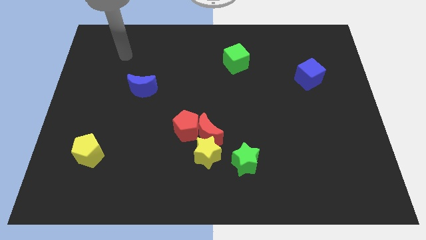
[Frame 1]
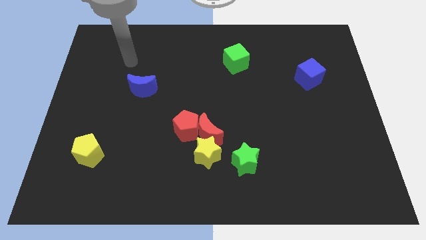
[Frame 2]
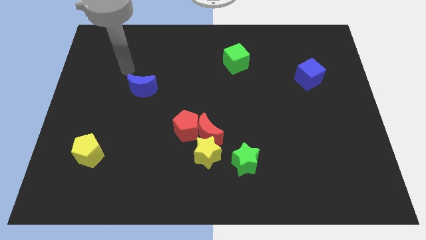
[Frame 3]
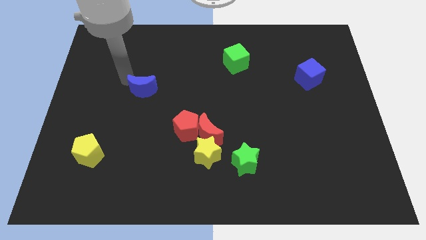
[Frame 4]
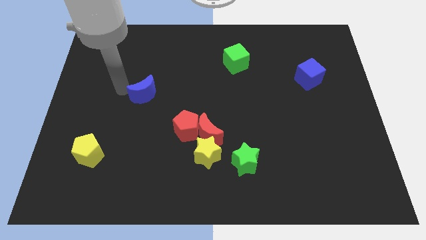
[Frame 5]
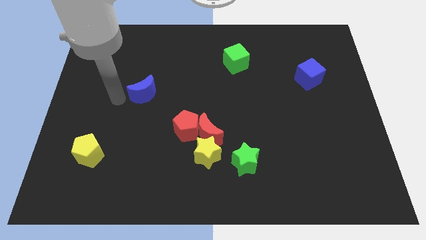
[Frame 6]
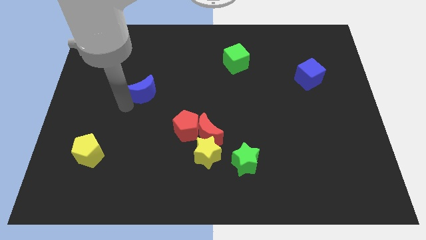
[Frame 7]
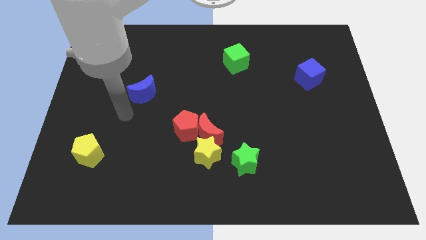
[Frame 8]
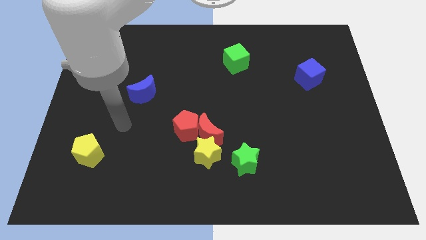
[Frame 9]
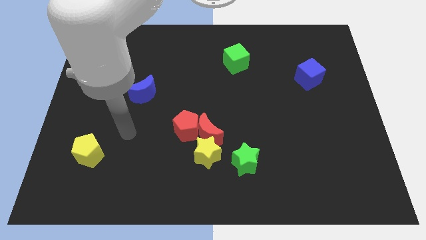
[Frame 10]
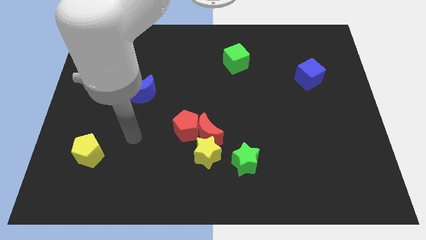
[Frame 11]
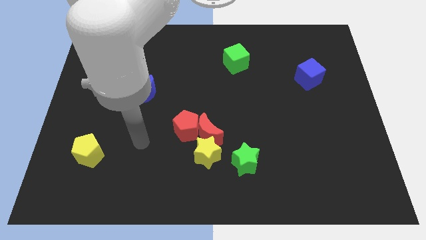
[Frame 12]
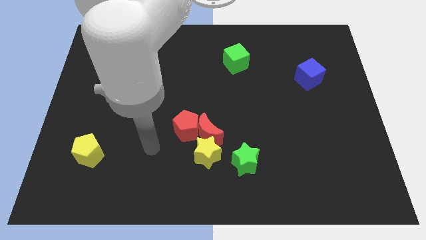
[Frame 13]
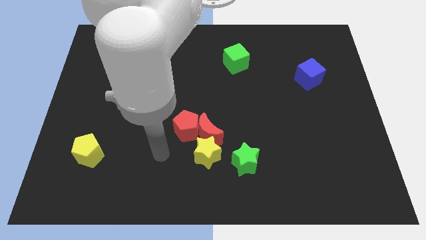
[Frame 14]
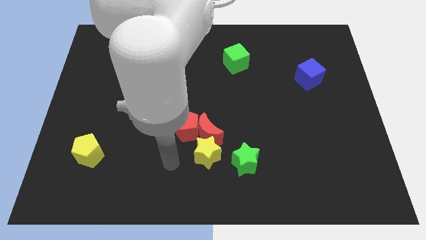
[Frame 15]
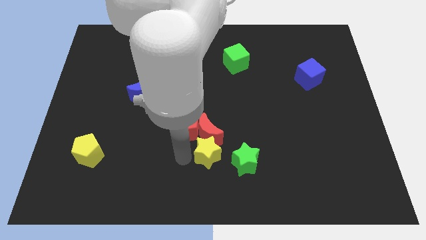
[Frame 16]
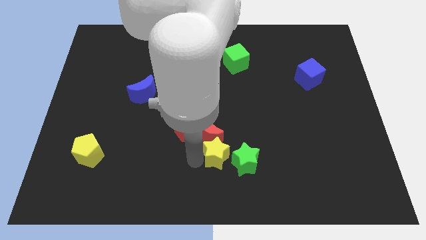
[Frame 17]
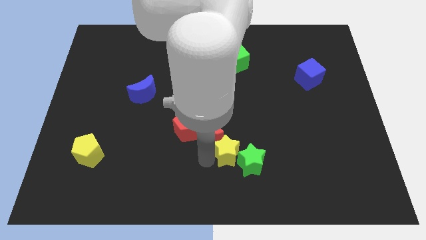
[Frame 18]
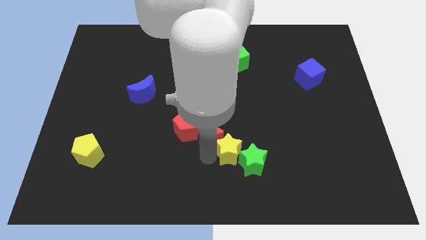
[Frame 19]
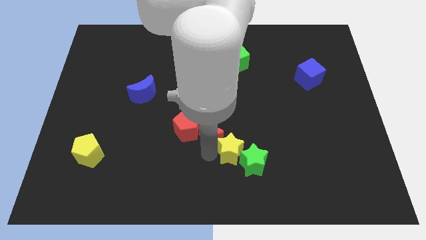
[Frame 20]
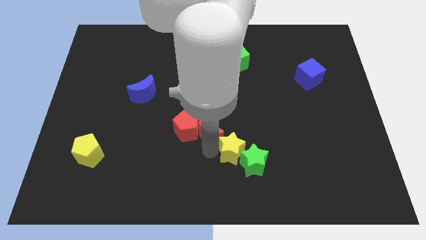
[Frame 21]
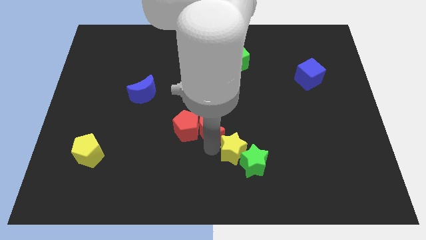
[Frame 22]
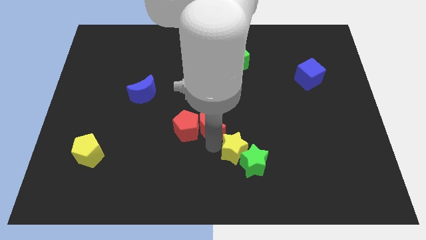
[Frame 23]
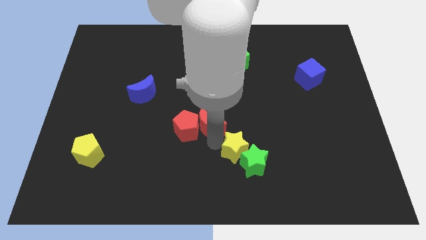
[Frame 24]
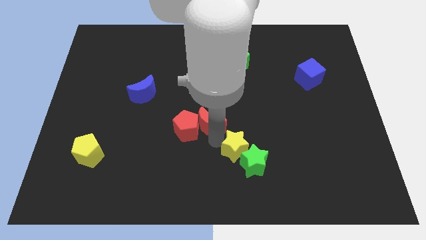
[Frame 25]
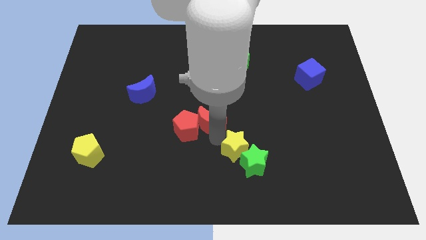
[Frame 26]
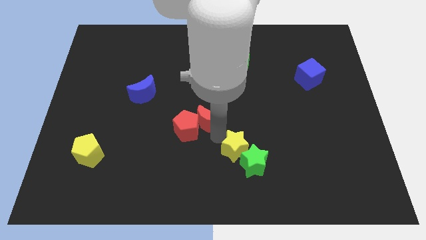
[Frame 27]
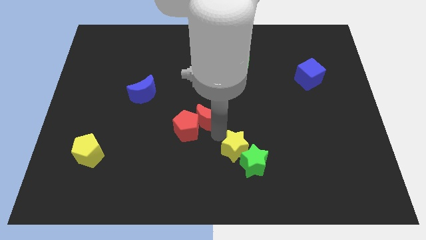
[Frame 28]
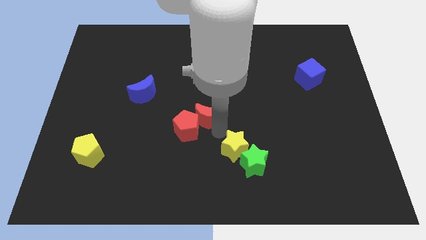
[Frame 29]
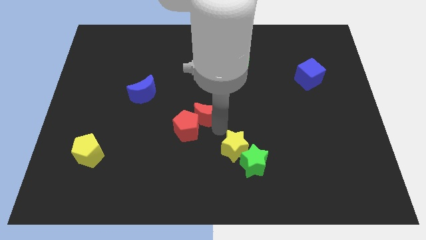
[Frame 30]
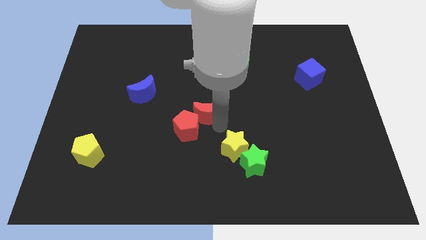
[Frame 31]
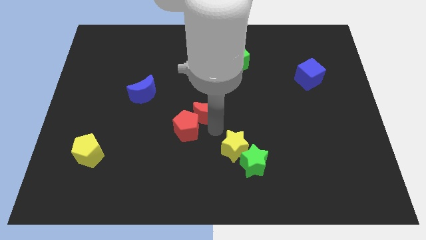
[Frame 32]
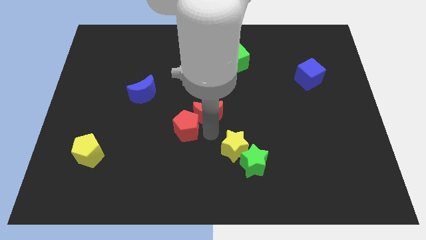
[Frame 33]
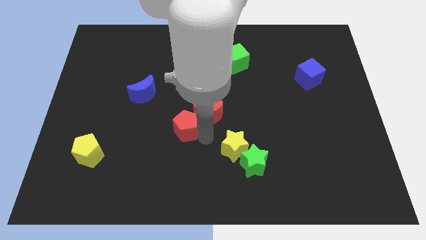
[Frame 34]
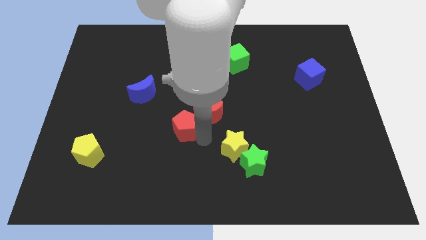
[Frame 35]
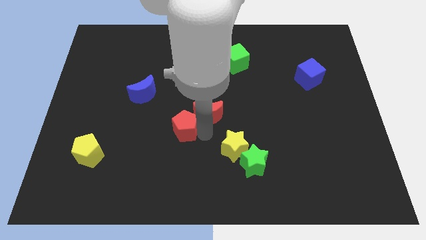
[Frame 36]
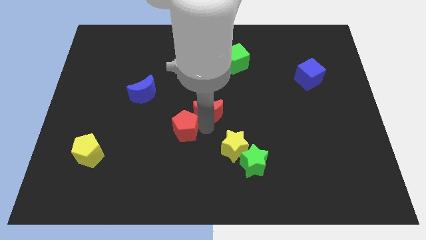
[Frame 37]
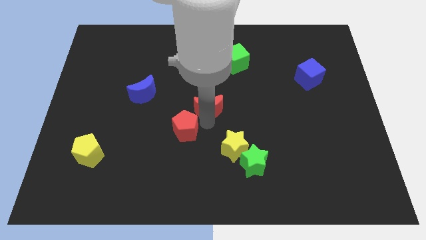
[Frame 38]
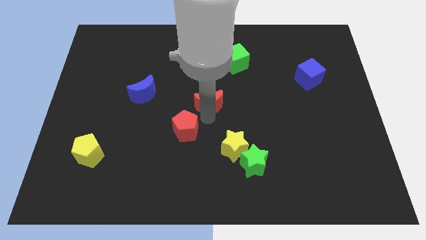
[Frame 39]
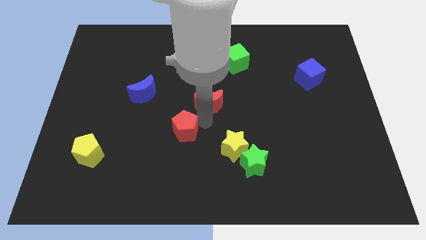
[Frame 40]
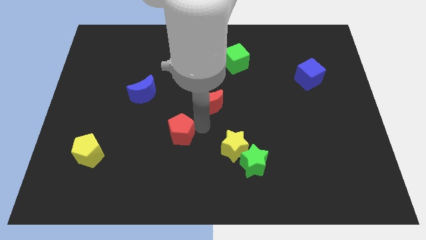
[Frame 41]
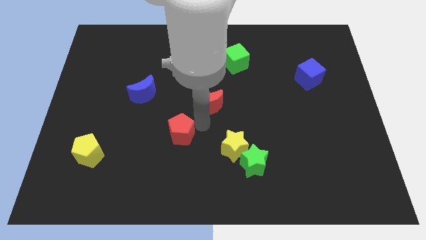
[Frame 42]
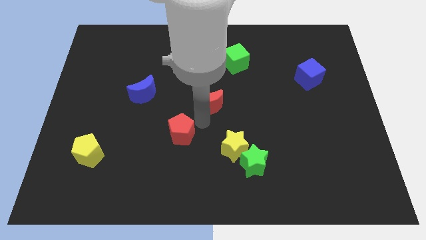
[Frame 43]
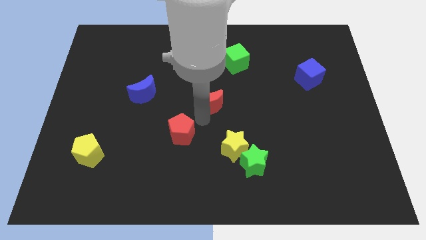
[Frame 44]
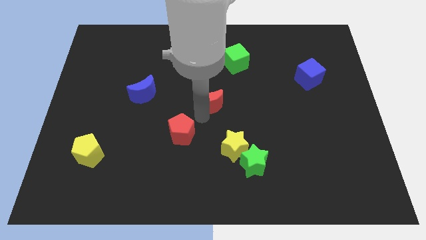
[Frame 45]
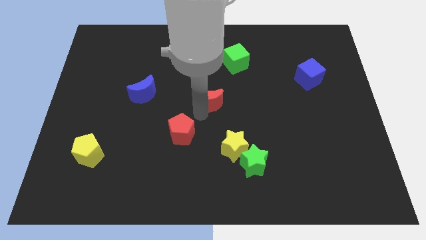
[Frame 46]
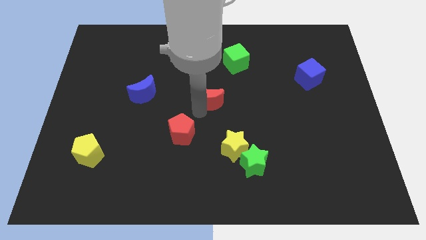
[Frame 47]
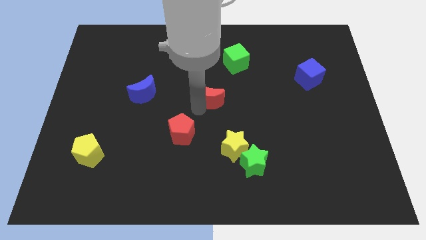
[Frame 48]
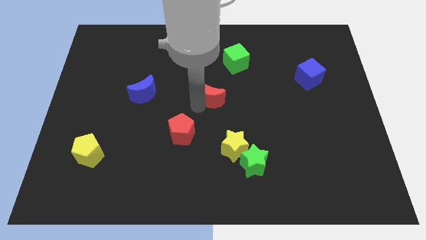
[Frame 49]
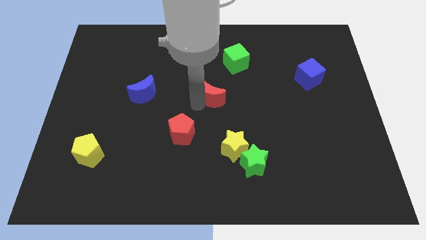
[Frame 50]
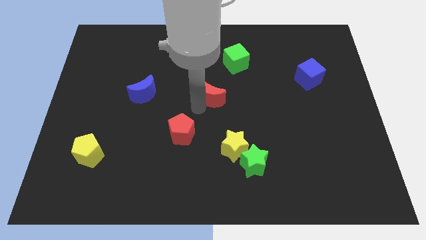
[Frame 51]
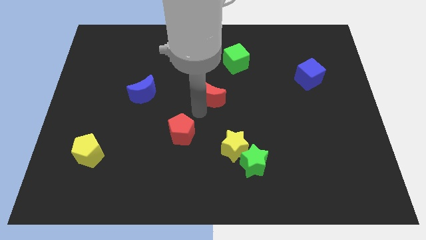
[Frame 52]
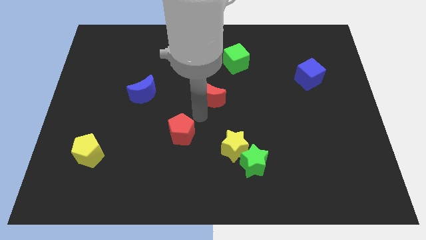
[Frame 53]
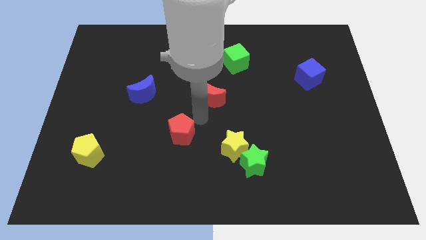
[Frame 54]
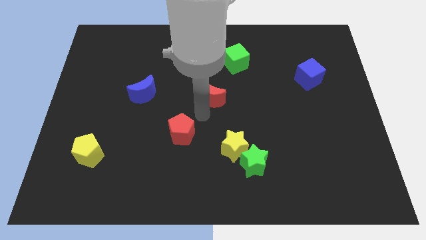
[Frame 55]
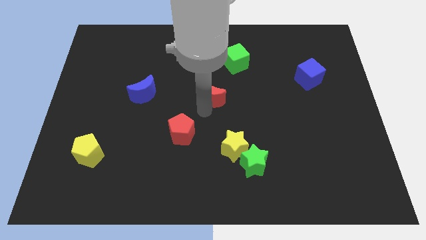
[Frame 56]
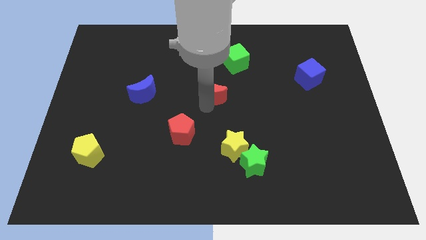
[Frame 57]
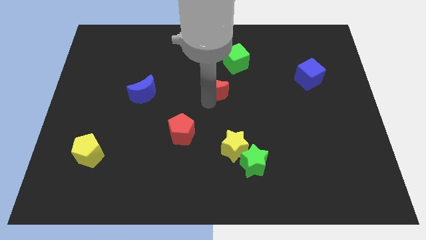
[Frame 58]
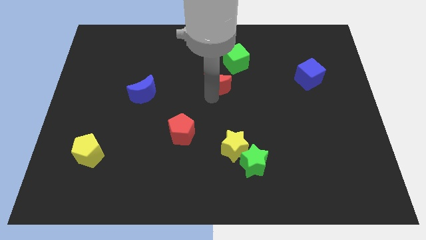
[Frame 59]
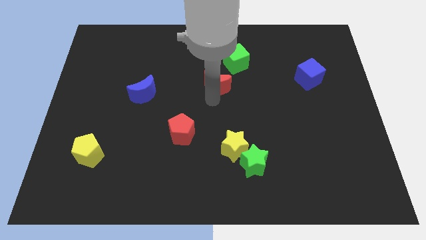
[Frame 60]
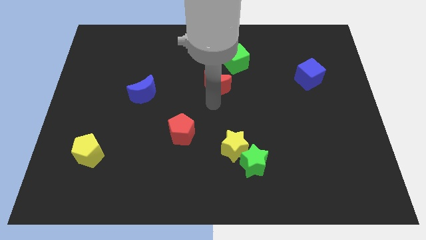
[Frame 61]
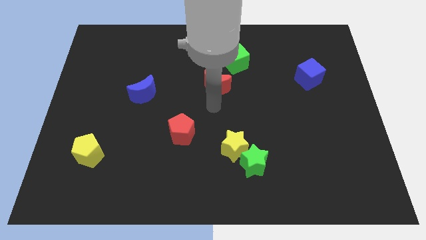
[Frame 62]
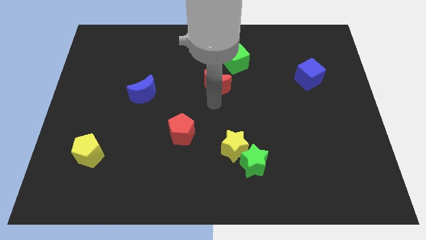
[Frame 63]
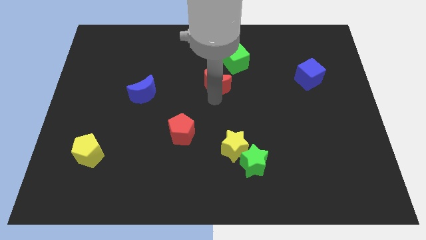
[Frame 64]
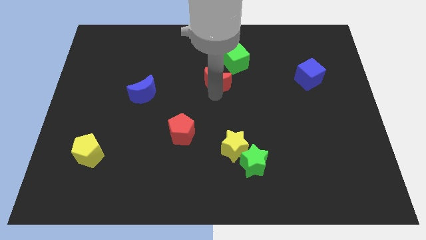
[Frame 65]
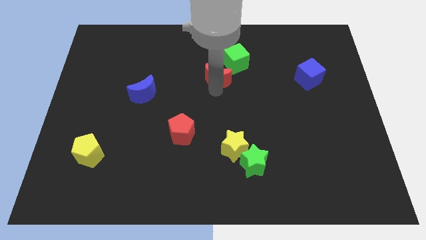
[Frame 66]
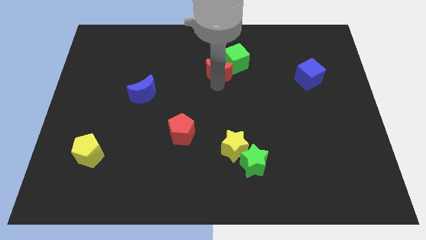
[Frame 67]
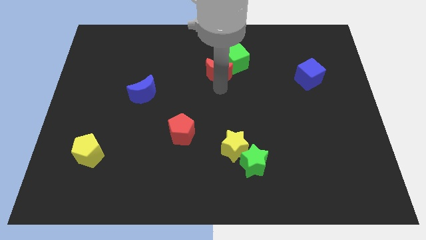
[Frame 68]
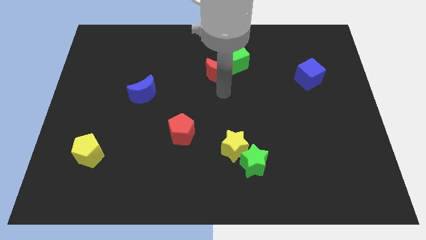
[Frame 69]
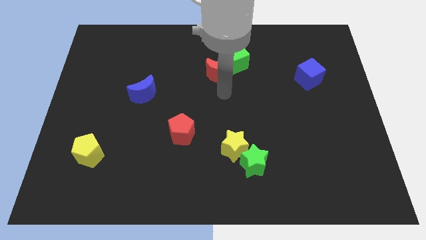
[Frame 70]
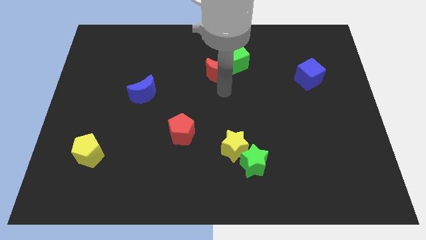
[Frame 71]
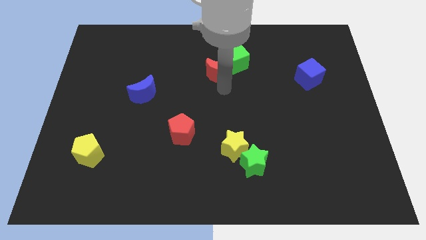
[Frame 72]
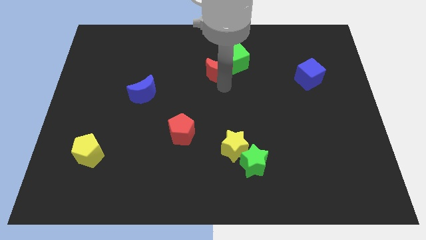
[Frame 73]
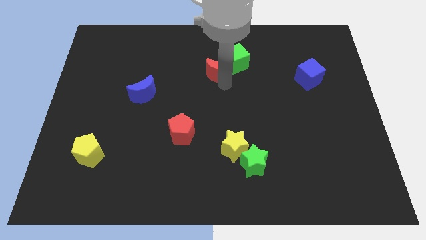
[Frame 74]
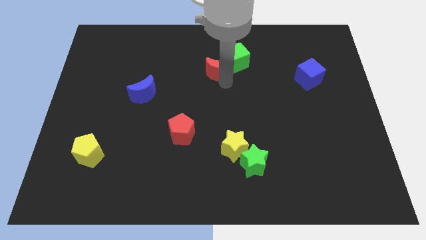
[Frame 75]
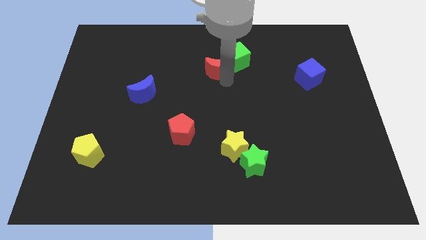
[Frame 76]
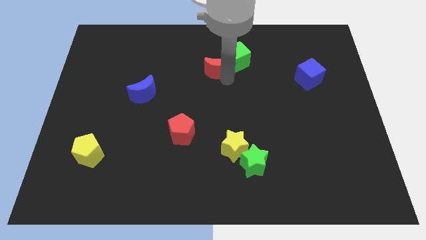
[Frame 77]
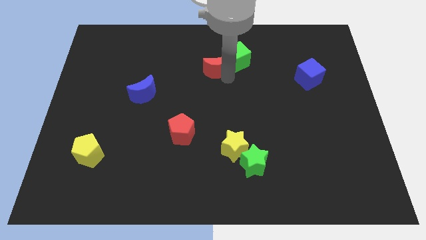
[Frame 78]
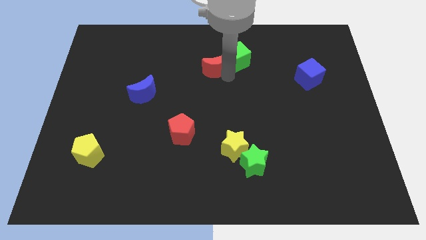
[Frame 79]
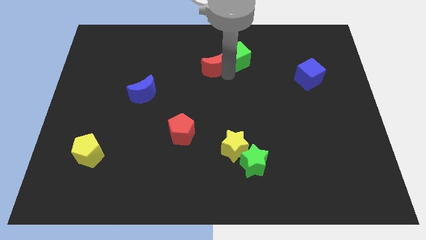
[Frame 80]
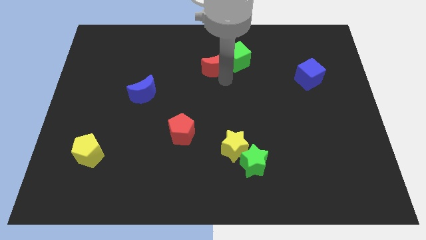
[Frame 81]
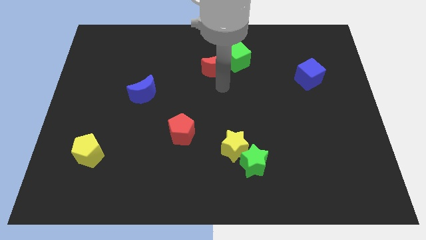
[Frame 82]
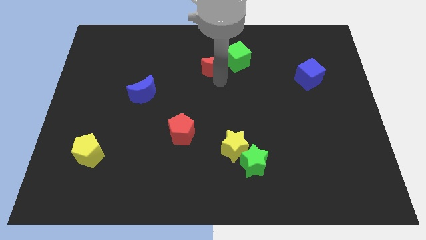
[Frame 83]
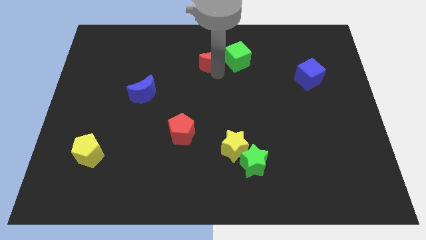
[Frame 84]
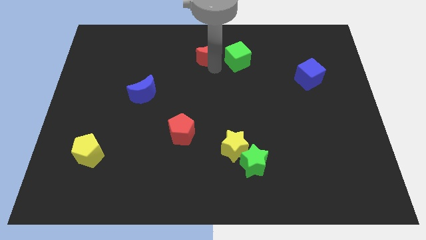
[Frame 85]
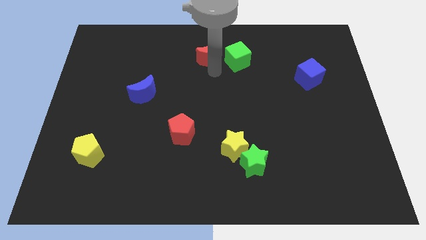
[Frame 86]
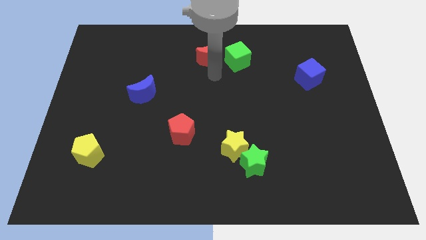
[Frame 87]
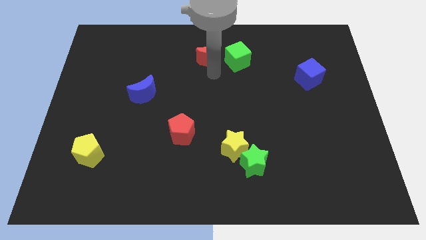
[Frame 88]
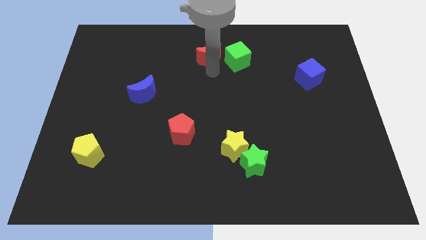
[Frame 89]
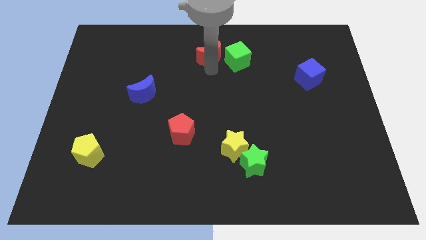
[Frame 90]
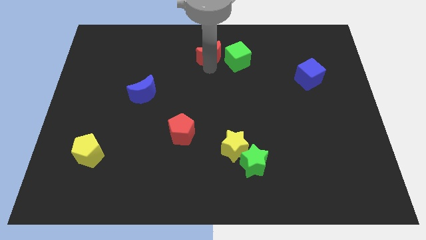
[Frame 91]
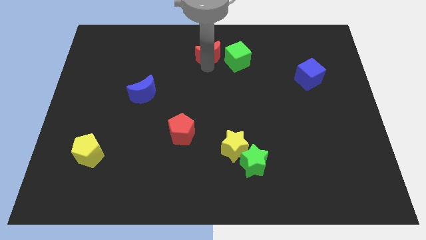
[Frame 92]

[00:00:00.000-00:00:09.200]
push the red moon to the top side
